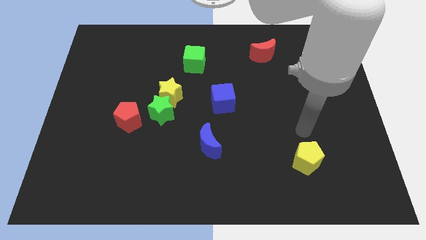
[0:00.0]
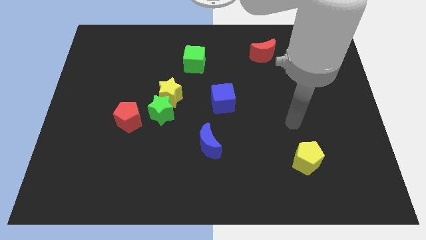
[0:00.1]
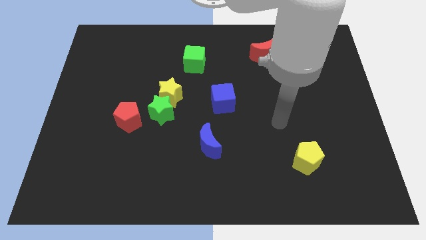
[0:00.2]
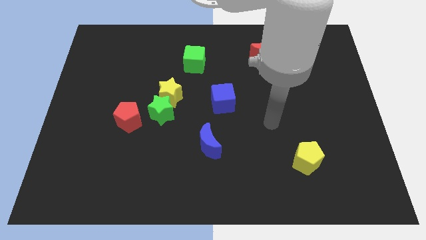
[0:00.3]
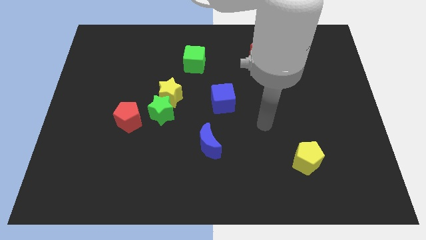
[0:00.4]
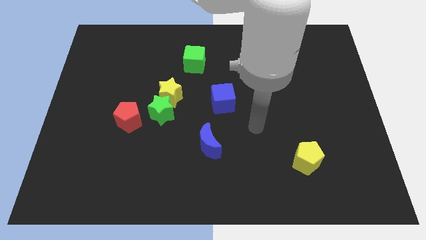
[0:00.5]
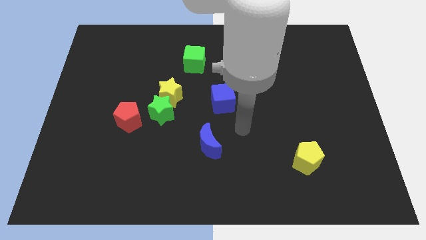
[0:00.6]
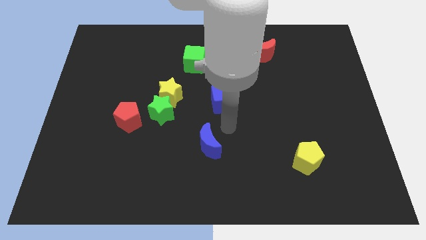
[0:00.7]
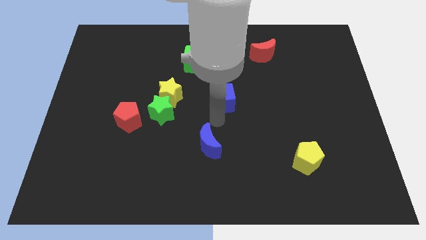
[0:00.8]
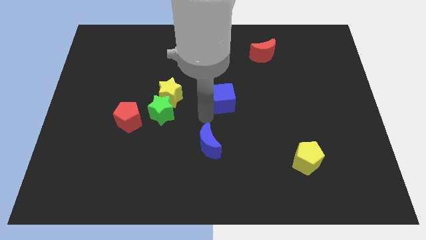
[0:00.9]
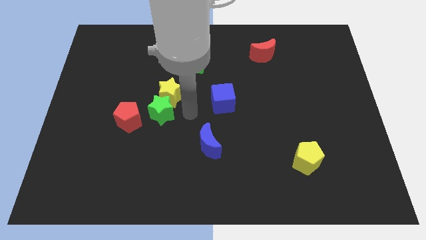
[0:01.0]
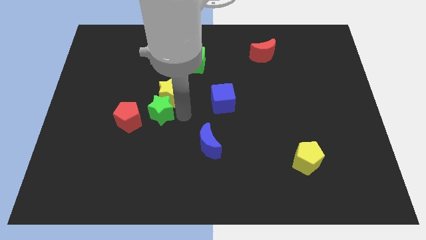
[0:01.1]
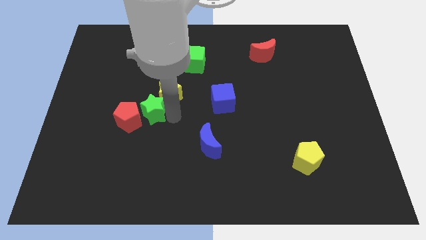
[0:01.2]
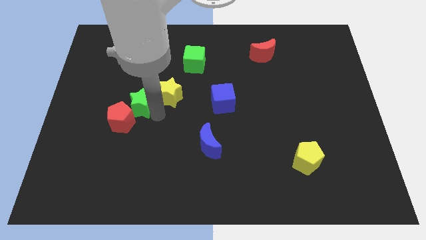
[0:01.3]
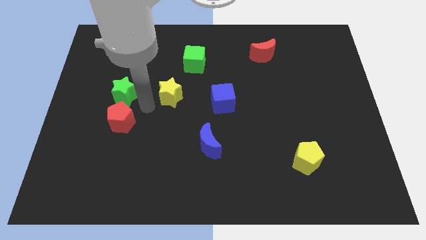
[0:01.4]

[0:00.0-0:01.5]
pull the yellow star apart from the green star

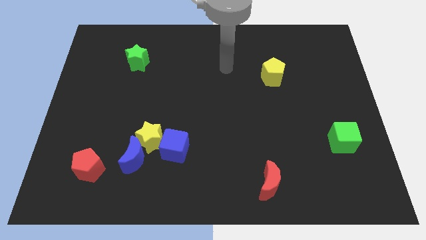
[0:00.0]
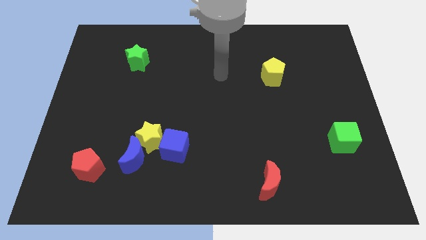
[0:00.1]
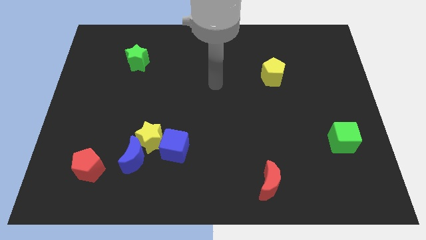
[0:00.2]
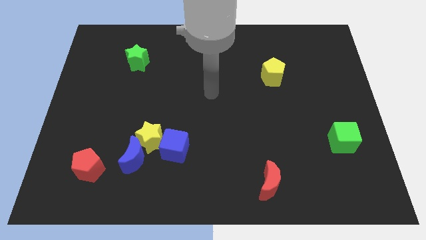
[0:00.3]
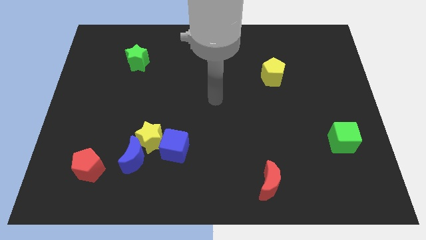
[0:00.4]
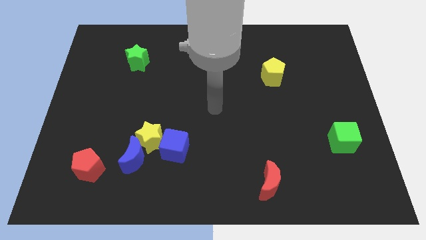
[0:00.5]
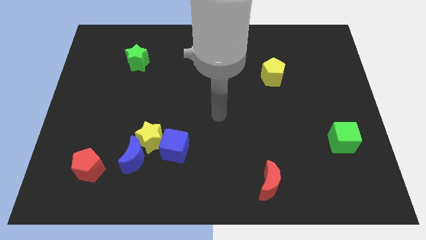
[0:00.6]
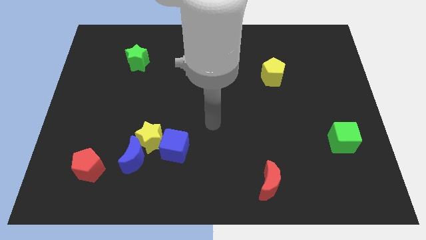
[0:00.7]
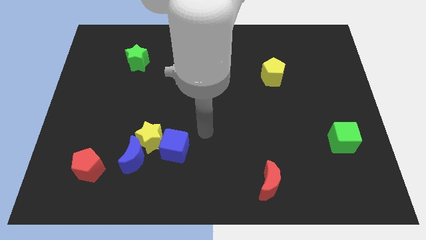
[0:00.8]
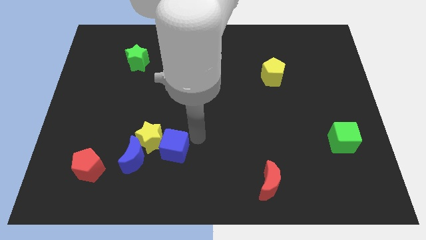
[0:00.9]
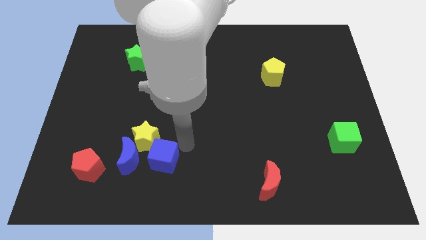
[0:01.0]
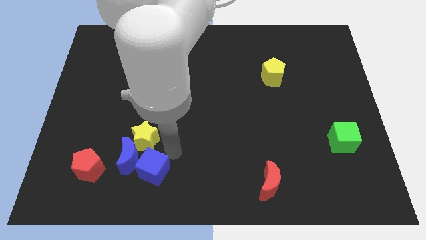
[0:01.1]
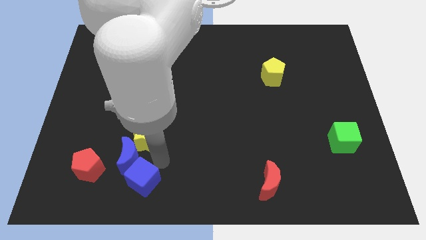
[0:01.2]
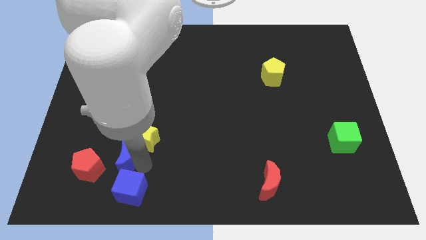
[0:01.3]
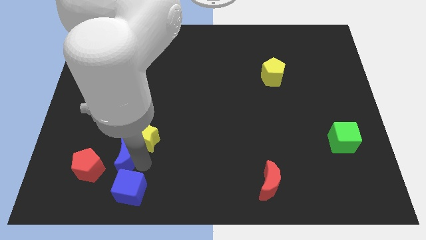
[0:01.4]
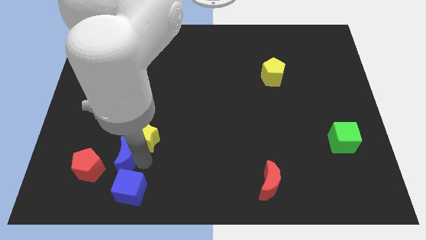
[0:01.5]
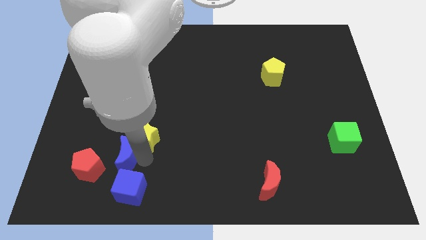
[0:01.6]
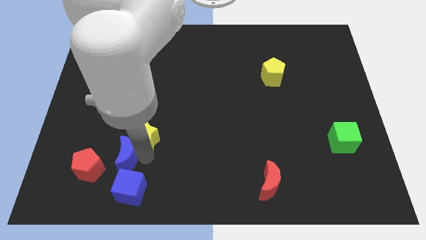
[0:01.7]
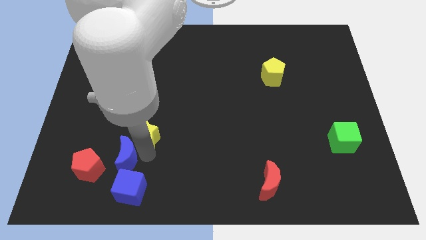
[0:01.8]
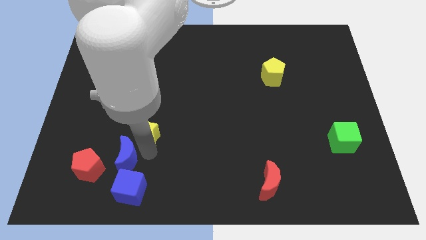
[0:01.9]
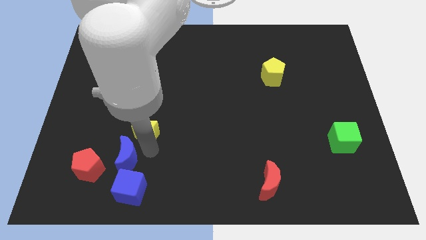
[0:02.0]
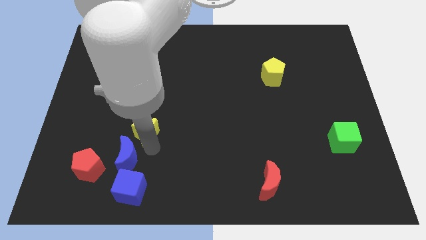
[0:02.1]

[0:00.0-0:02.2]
pull the yellow star apart from the blue moon and blue cube

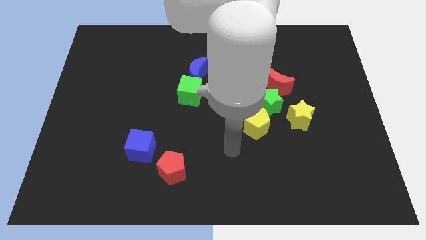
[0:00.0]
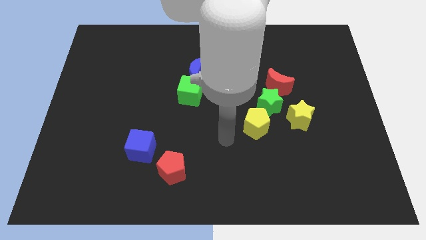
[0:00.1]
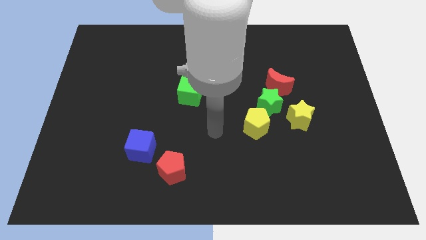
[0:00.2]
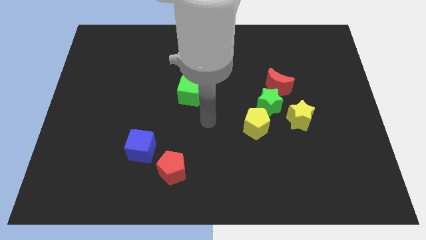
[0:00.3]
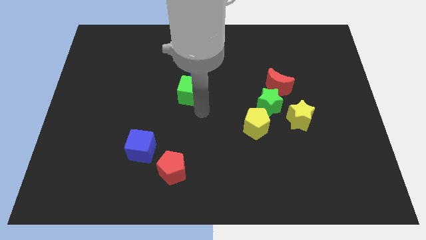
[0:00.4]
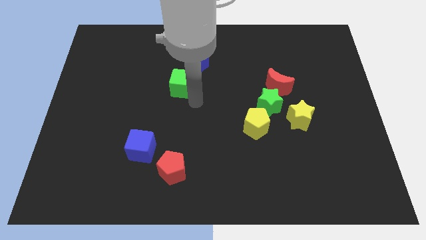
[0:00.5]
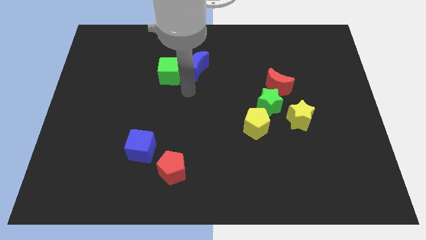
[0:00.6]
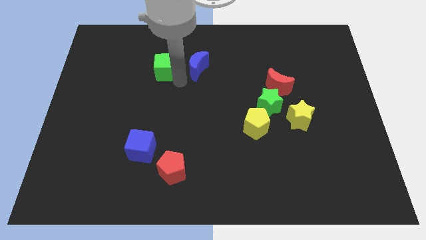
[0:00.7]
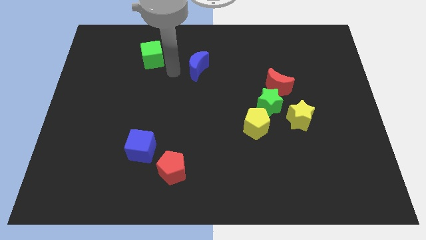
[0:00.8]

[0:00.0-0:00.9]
pull the blue moon apart from the green cube

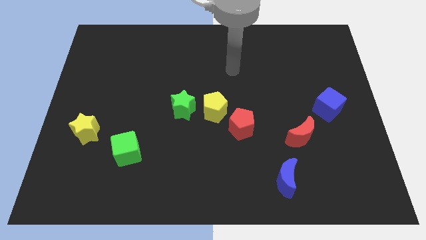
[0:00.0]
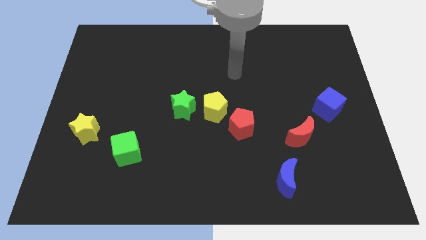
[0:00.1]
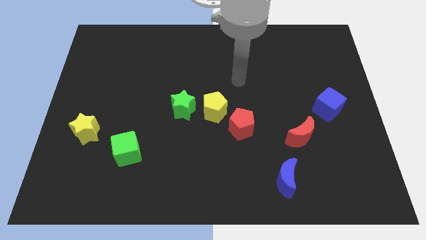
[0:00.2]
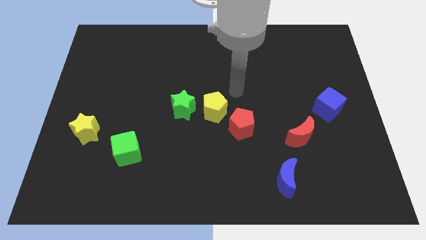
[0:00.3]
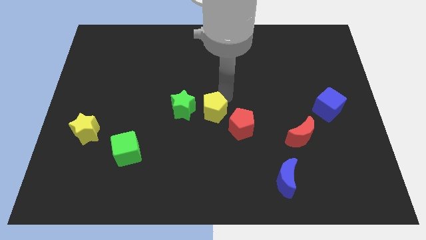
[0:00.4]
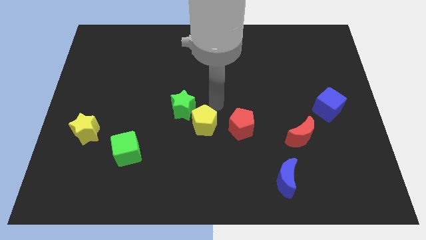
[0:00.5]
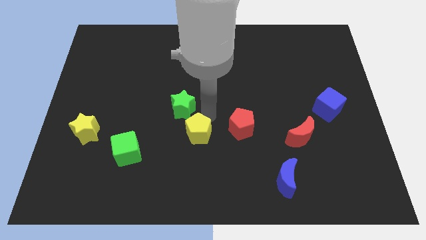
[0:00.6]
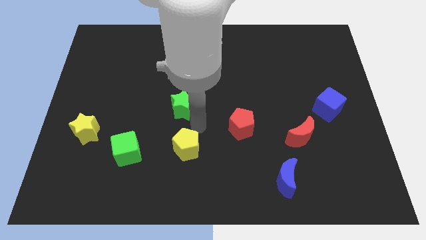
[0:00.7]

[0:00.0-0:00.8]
separate the green star from the yellow pentagon

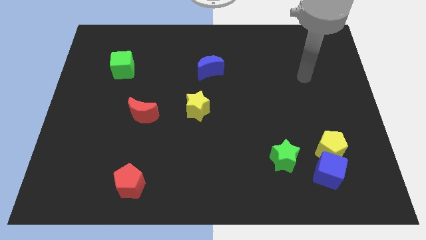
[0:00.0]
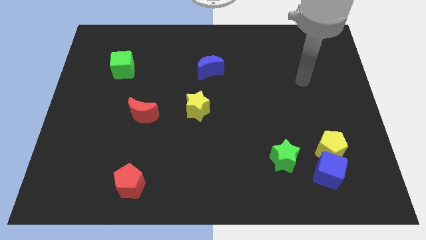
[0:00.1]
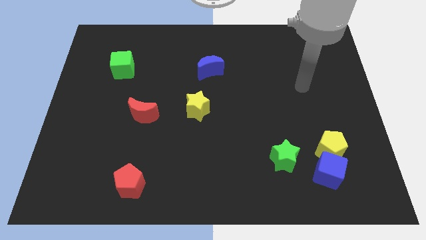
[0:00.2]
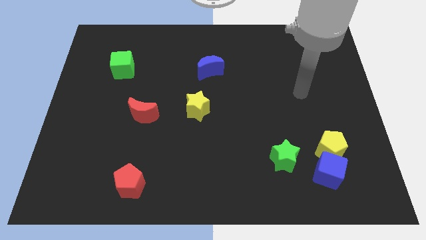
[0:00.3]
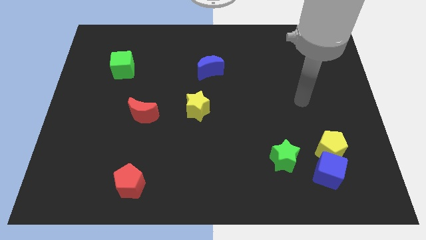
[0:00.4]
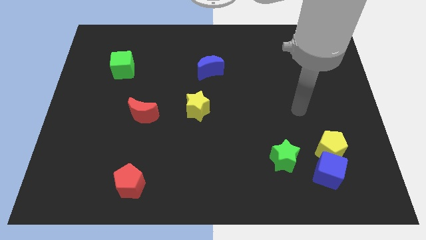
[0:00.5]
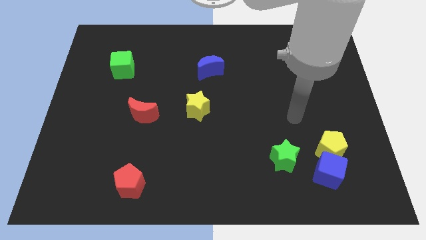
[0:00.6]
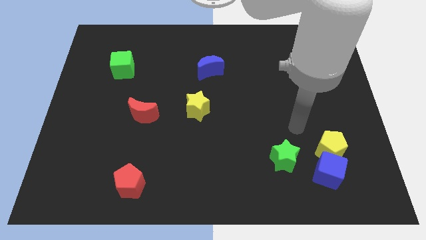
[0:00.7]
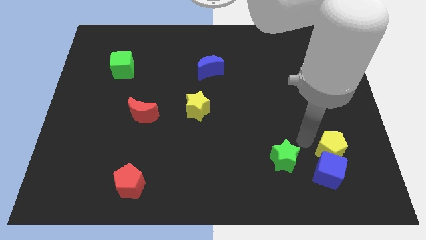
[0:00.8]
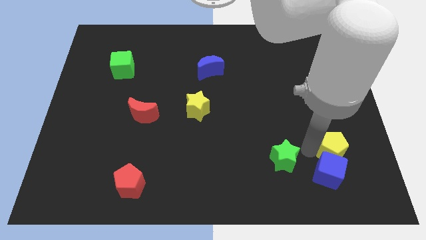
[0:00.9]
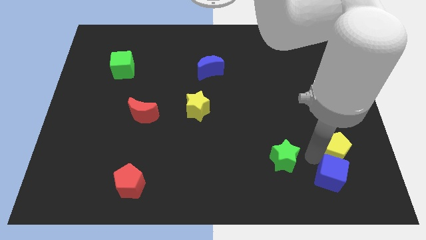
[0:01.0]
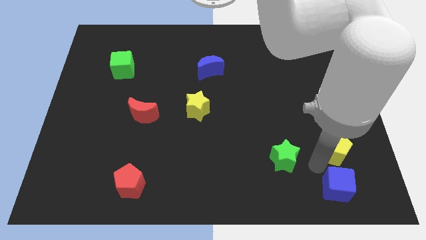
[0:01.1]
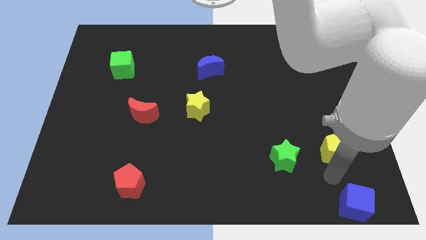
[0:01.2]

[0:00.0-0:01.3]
pull the yellow pentagon apart from the blue cube

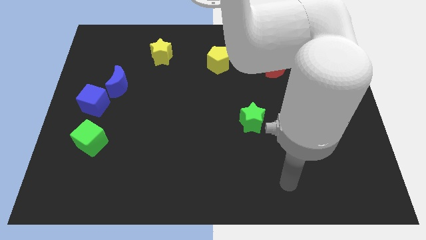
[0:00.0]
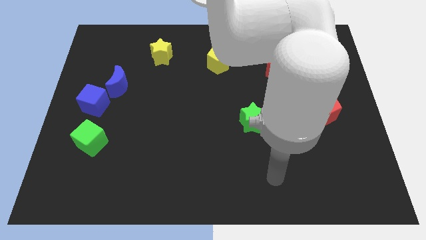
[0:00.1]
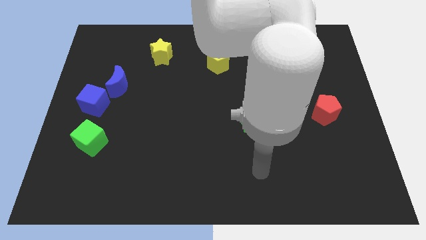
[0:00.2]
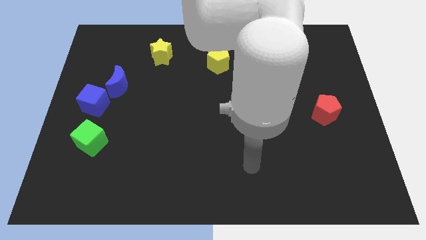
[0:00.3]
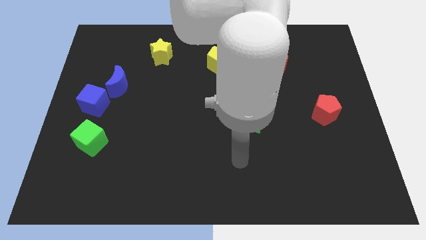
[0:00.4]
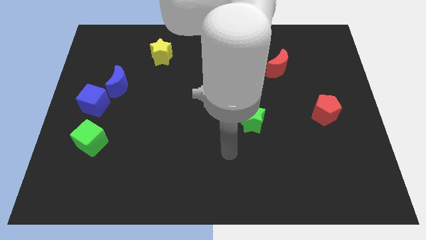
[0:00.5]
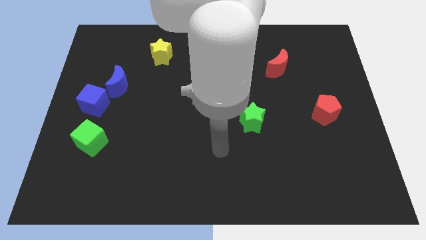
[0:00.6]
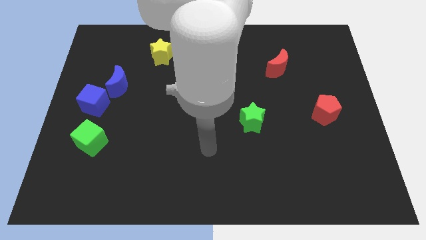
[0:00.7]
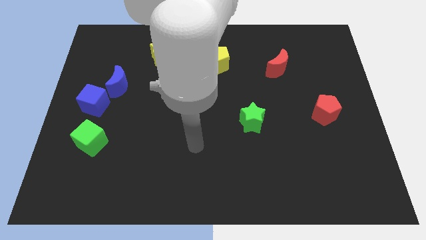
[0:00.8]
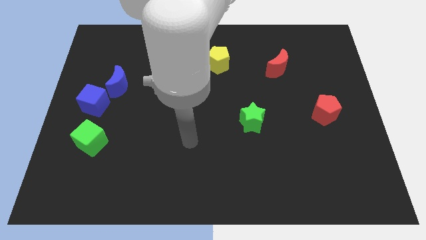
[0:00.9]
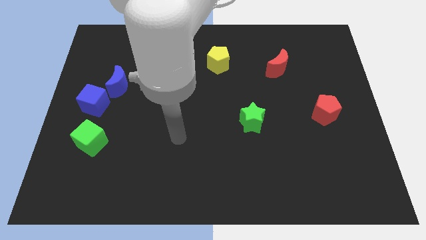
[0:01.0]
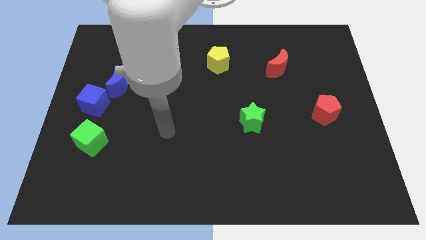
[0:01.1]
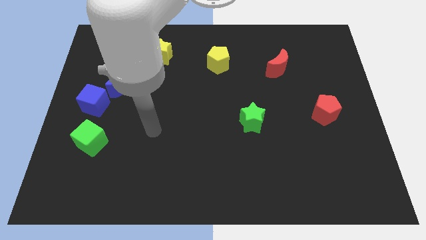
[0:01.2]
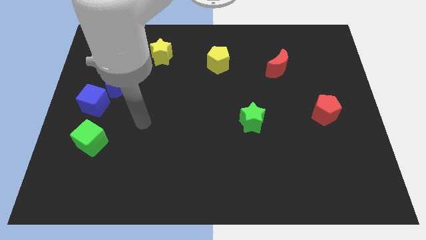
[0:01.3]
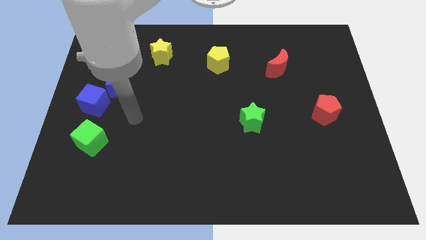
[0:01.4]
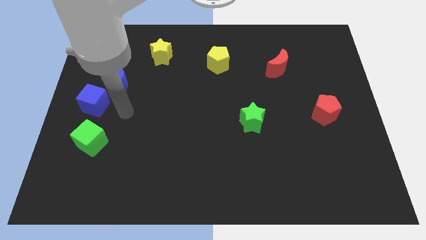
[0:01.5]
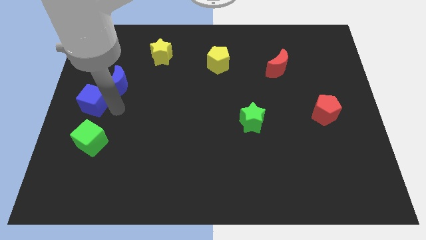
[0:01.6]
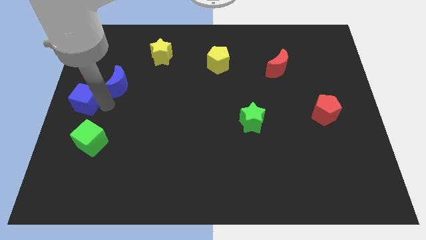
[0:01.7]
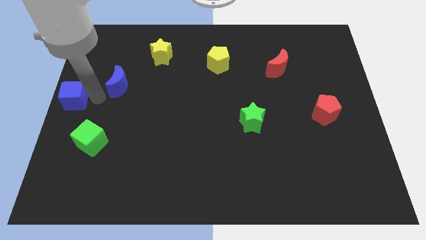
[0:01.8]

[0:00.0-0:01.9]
separate the blue moon from the blue cube

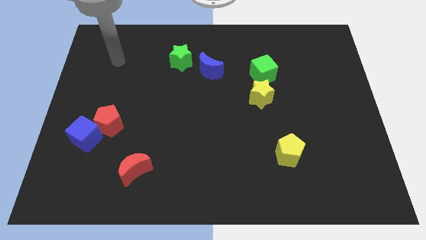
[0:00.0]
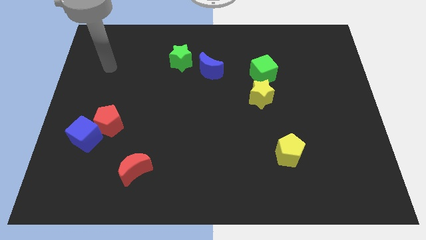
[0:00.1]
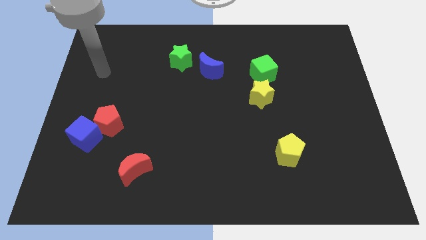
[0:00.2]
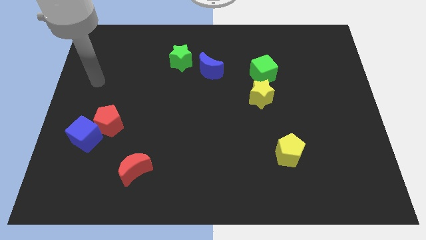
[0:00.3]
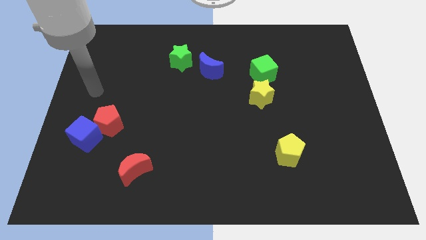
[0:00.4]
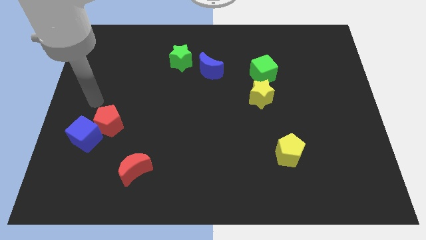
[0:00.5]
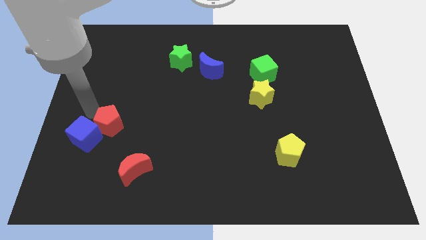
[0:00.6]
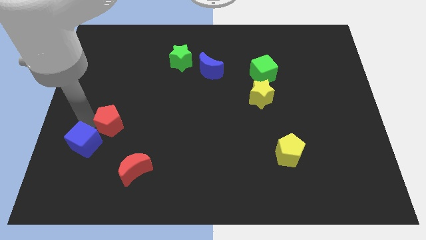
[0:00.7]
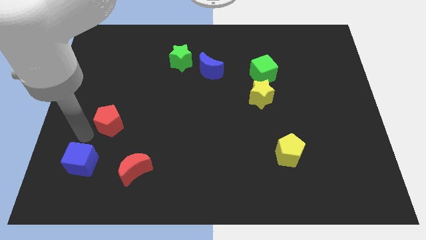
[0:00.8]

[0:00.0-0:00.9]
pull the red pentagon apart from the blue cube
